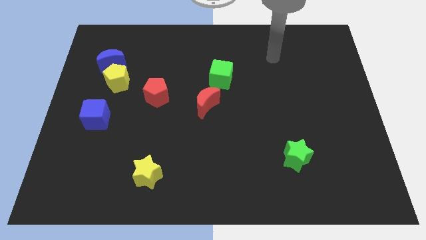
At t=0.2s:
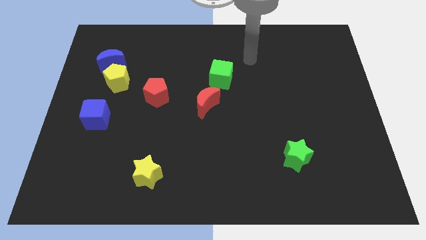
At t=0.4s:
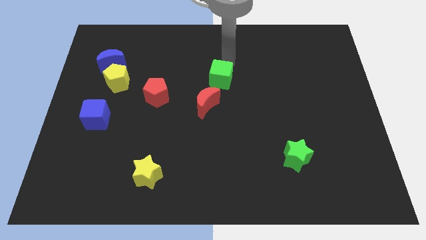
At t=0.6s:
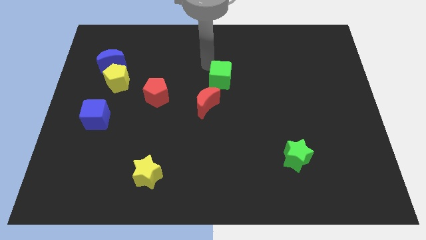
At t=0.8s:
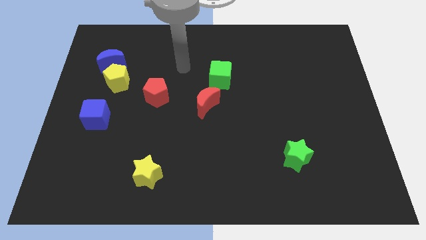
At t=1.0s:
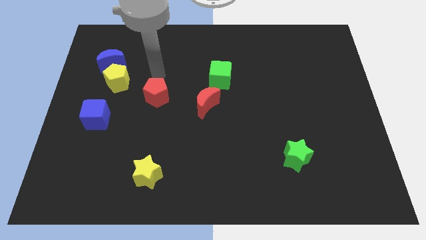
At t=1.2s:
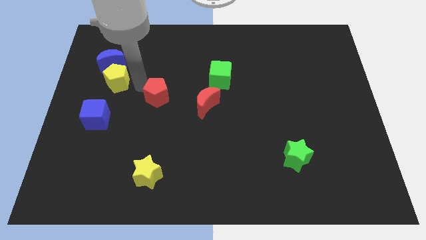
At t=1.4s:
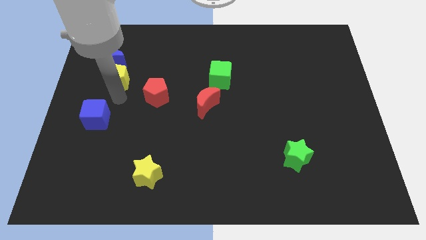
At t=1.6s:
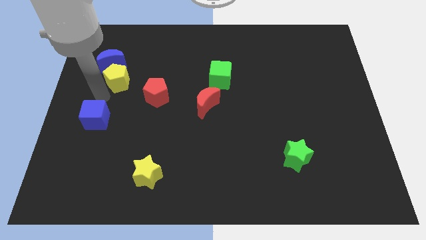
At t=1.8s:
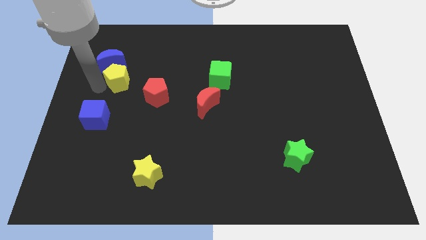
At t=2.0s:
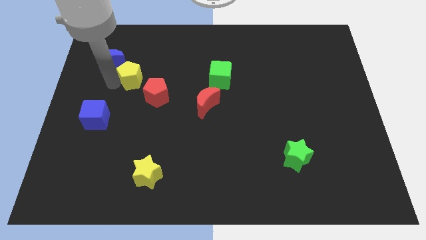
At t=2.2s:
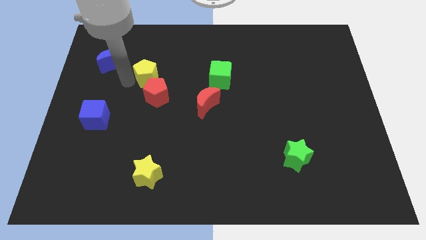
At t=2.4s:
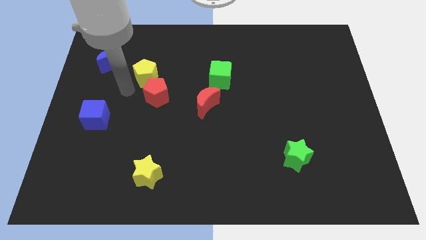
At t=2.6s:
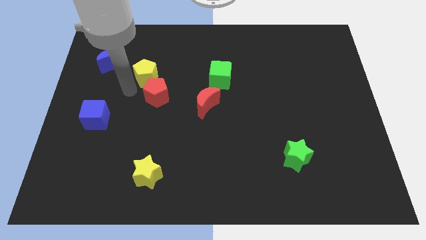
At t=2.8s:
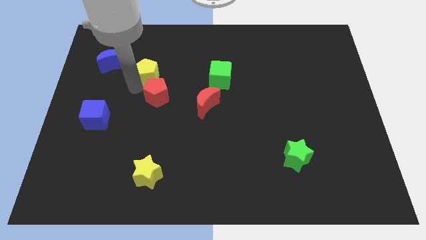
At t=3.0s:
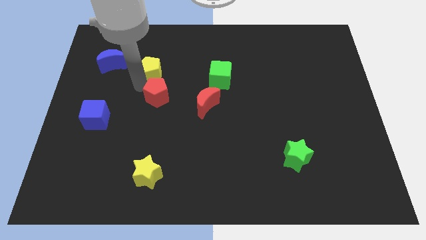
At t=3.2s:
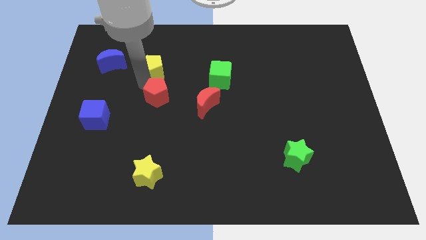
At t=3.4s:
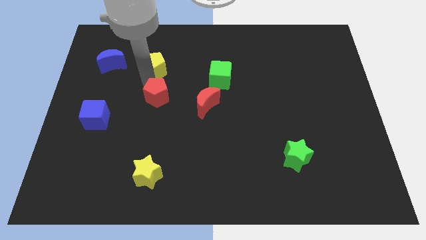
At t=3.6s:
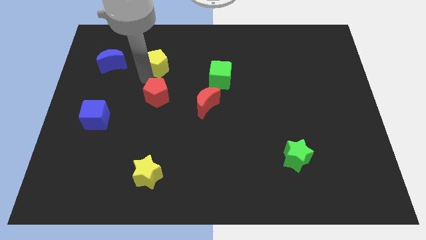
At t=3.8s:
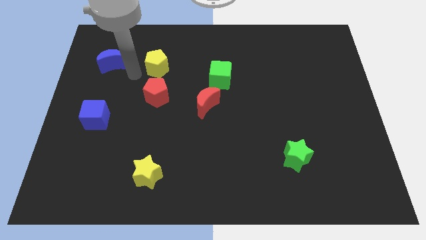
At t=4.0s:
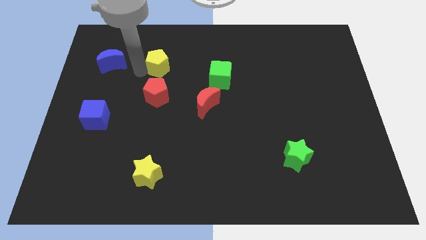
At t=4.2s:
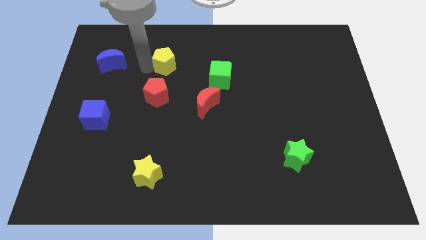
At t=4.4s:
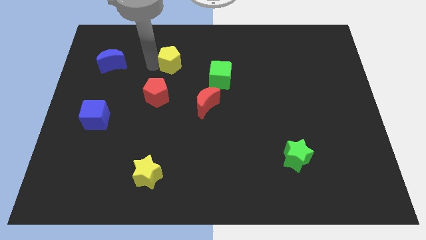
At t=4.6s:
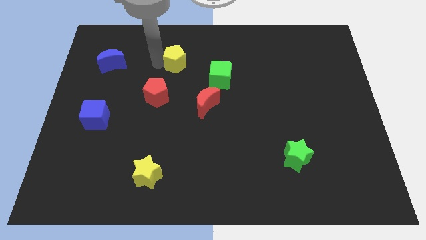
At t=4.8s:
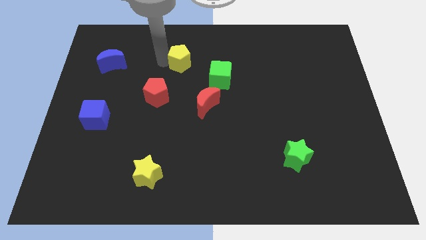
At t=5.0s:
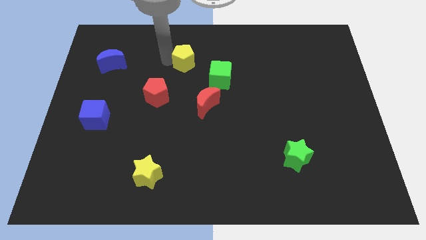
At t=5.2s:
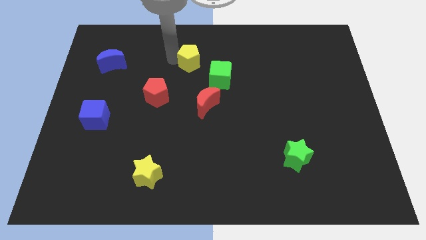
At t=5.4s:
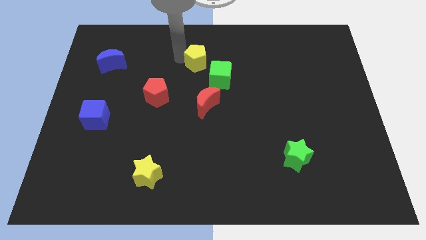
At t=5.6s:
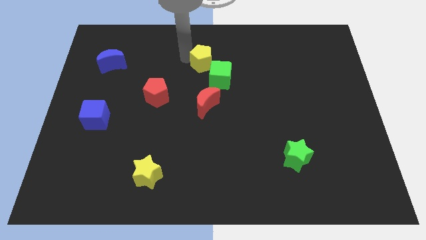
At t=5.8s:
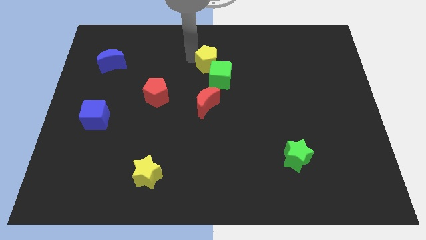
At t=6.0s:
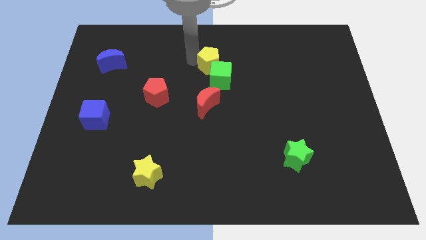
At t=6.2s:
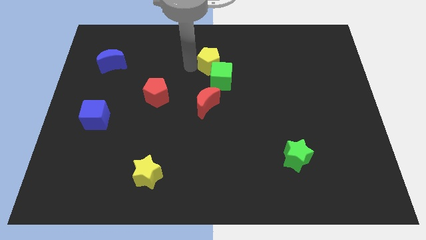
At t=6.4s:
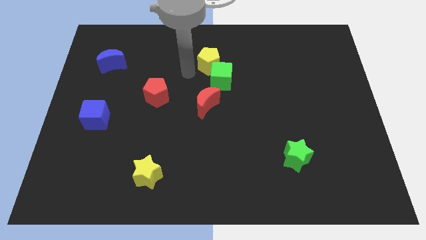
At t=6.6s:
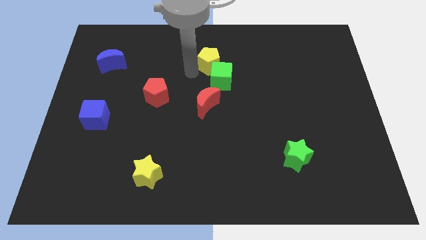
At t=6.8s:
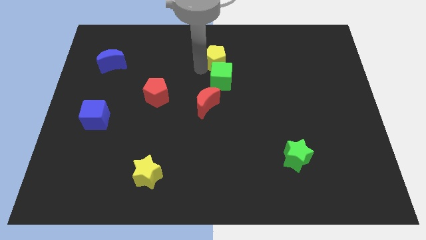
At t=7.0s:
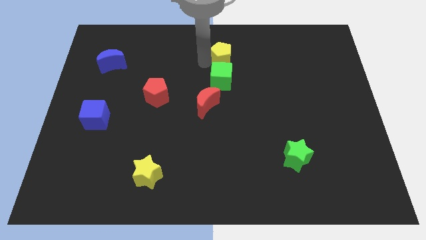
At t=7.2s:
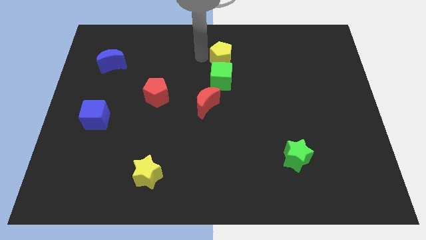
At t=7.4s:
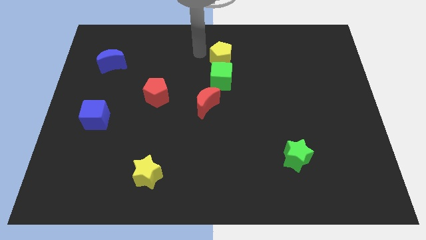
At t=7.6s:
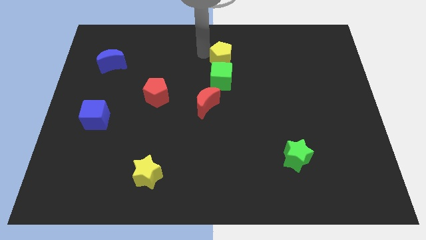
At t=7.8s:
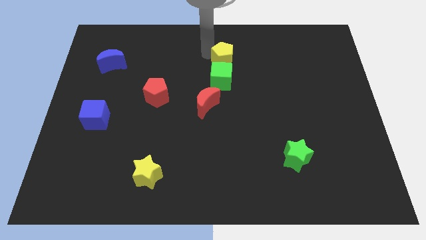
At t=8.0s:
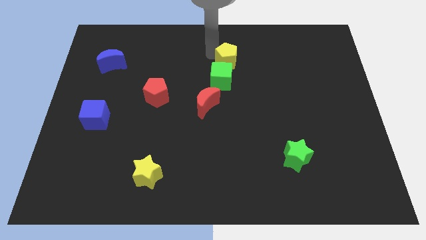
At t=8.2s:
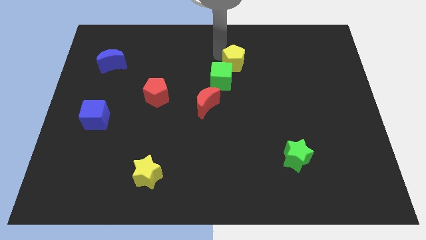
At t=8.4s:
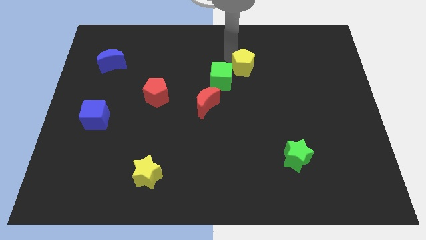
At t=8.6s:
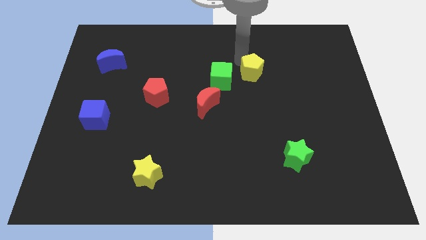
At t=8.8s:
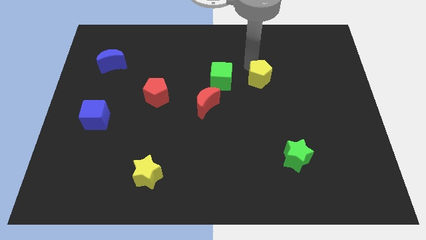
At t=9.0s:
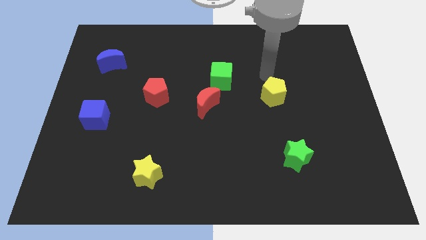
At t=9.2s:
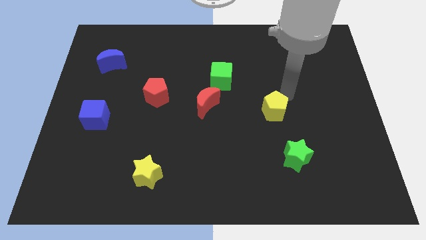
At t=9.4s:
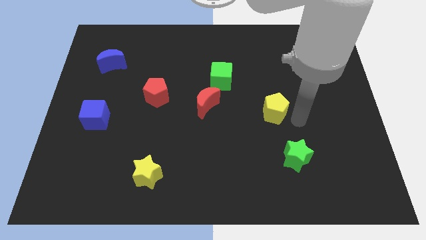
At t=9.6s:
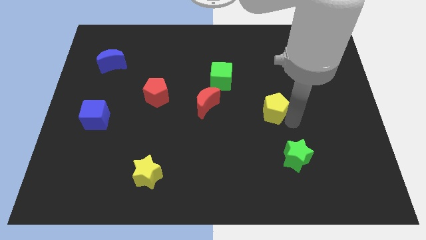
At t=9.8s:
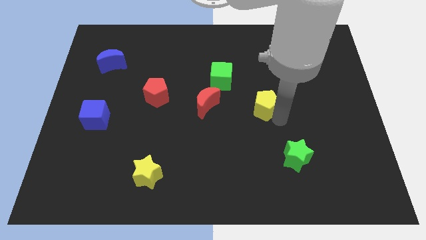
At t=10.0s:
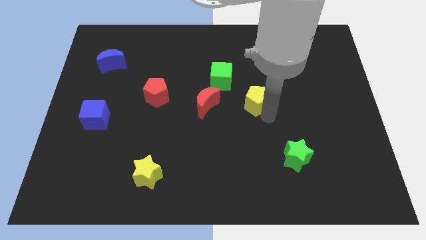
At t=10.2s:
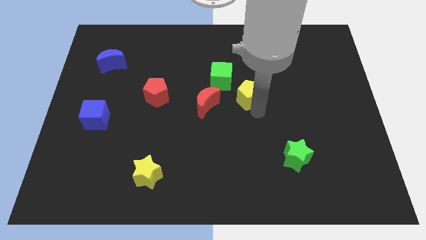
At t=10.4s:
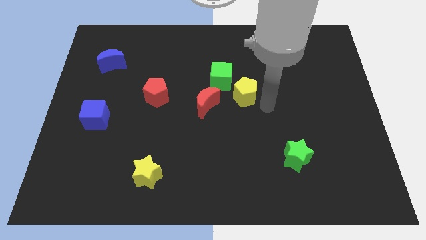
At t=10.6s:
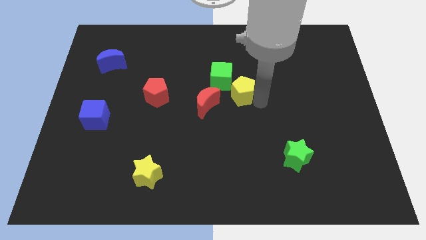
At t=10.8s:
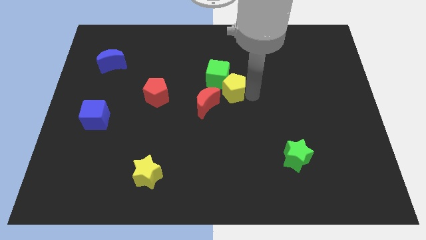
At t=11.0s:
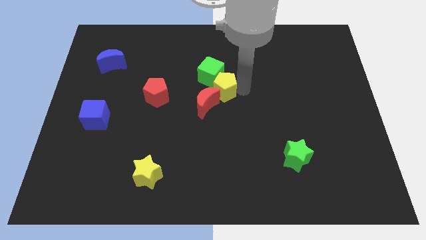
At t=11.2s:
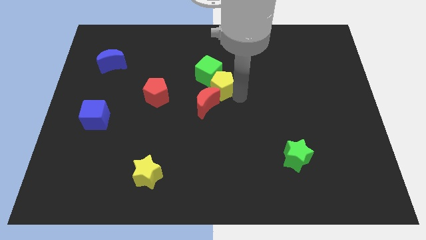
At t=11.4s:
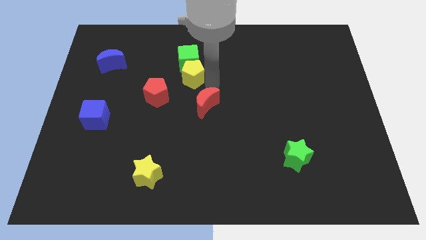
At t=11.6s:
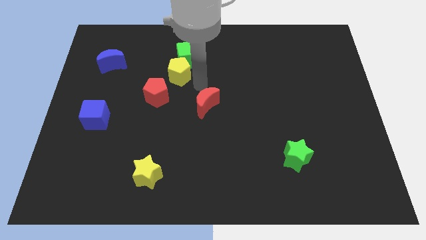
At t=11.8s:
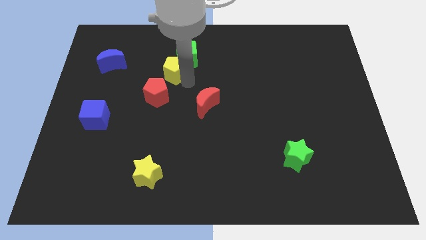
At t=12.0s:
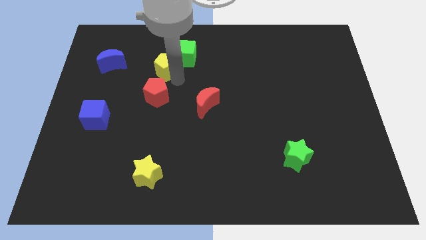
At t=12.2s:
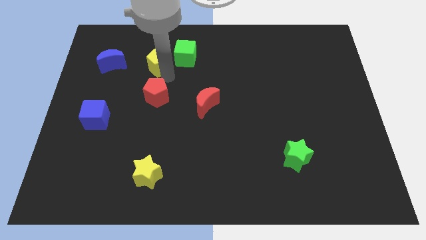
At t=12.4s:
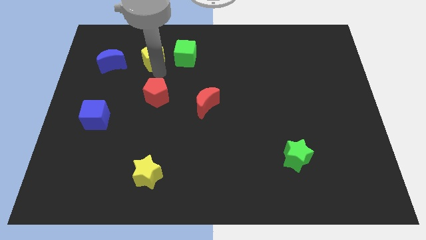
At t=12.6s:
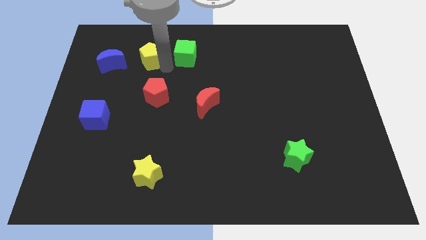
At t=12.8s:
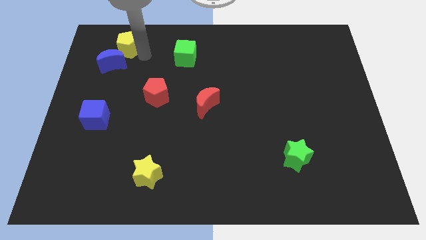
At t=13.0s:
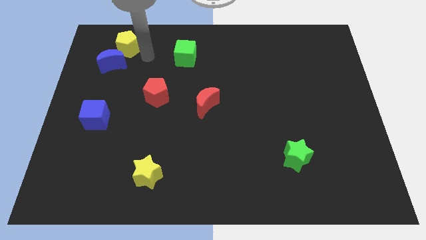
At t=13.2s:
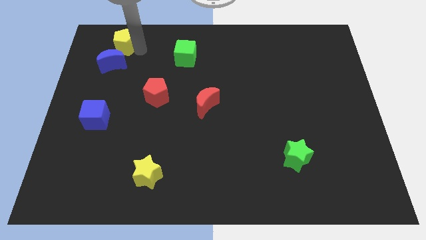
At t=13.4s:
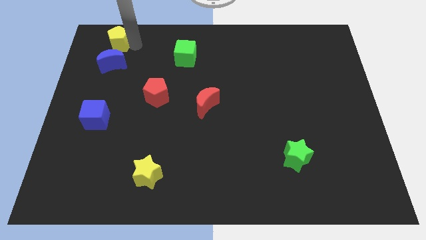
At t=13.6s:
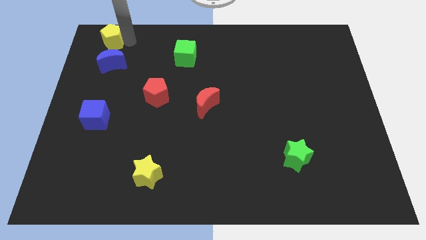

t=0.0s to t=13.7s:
move the yellow pentagon to the top left of the board
